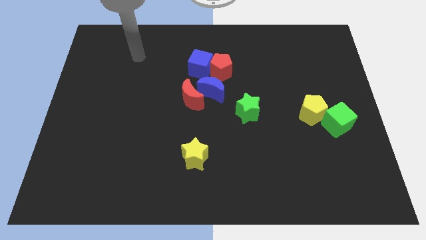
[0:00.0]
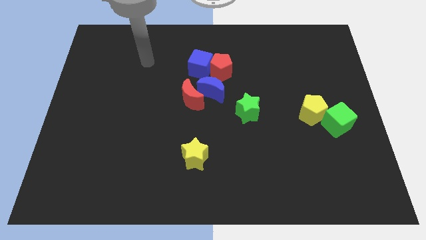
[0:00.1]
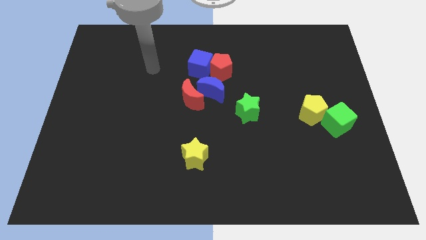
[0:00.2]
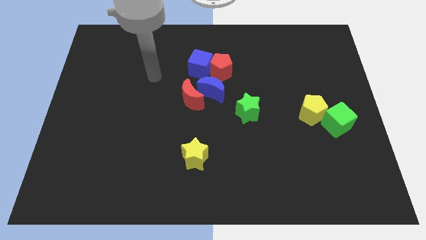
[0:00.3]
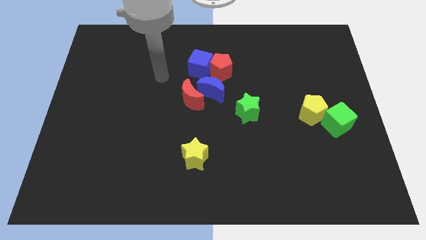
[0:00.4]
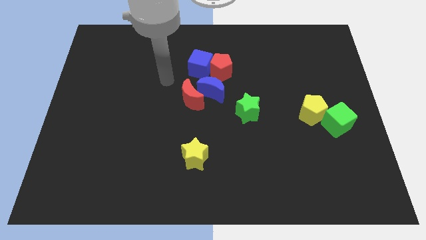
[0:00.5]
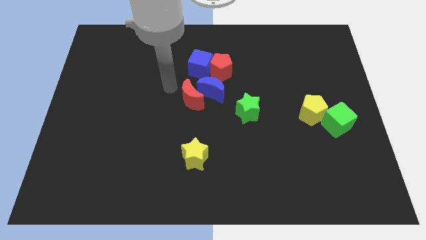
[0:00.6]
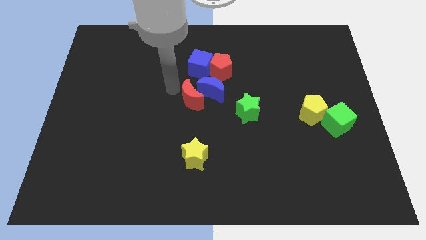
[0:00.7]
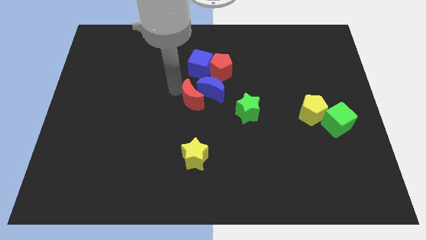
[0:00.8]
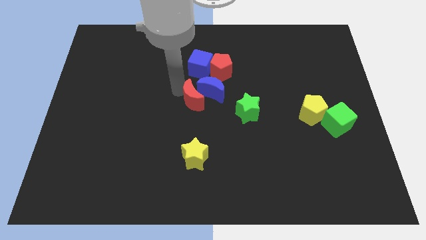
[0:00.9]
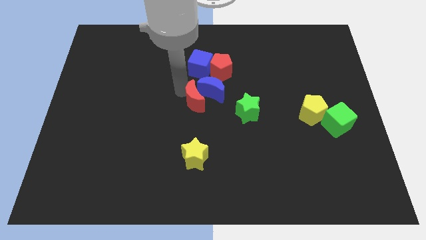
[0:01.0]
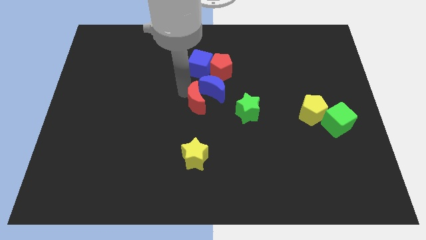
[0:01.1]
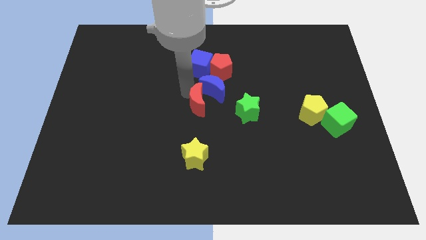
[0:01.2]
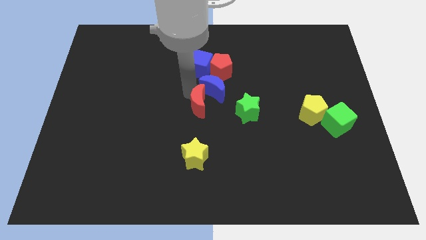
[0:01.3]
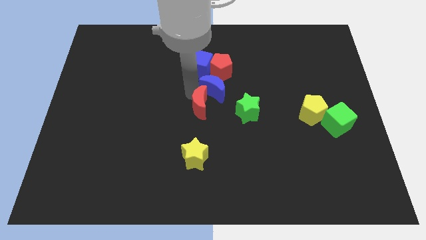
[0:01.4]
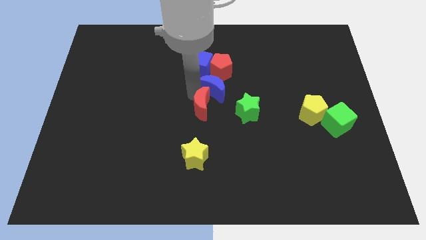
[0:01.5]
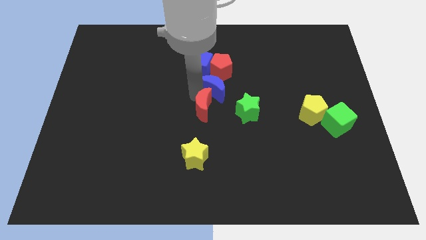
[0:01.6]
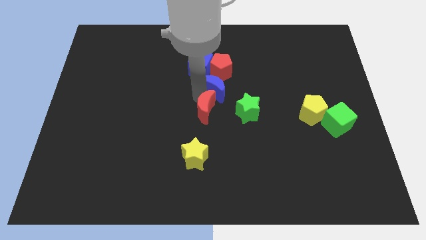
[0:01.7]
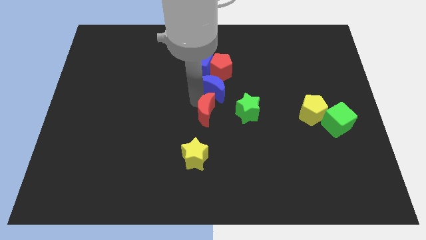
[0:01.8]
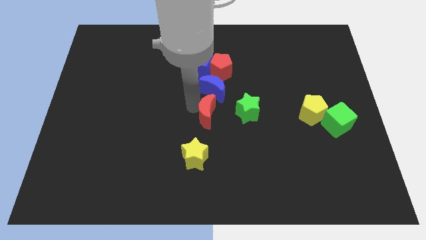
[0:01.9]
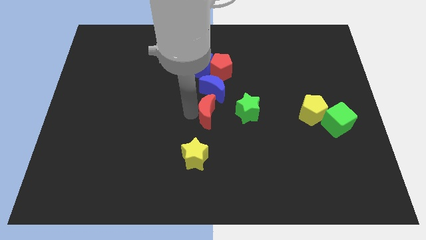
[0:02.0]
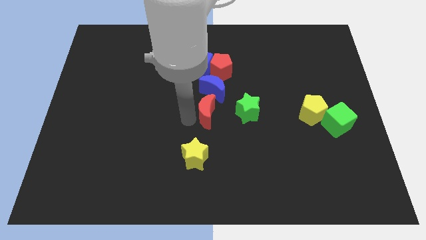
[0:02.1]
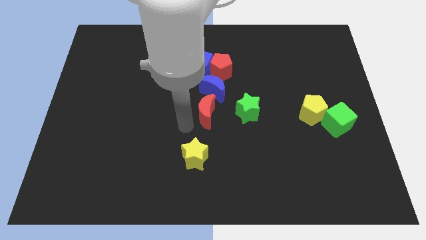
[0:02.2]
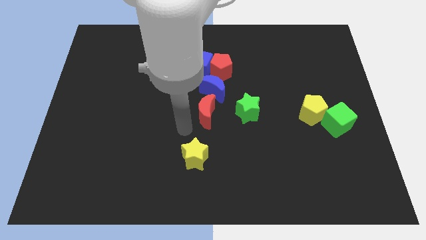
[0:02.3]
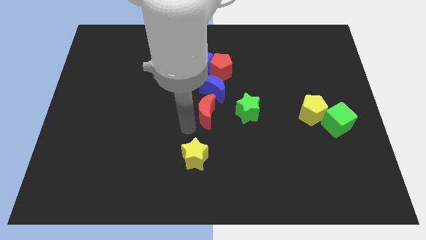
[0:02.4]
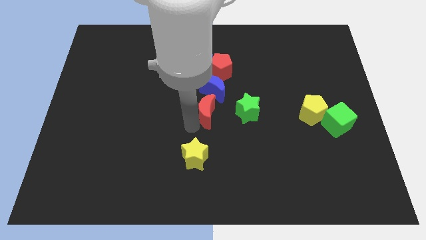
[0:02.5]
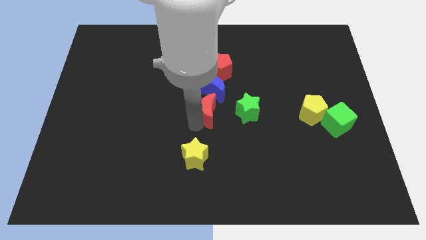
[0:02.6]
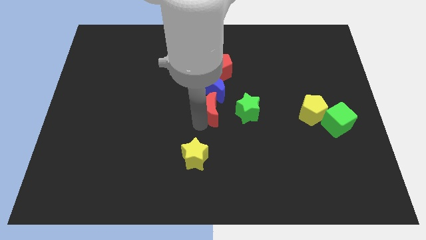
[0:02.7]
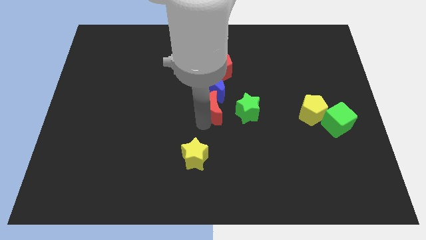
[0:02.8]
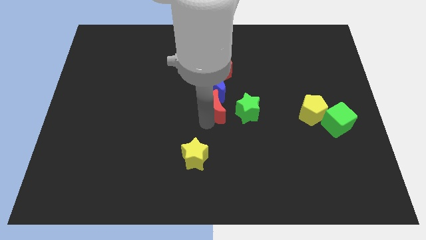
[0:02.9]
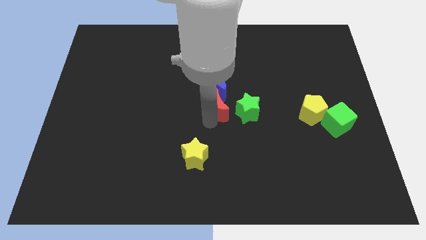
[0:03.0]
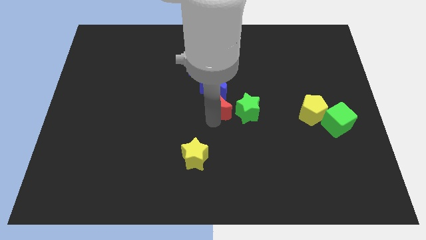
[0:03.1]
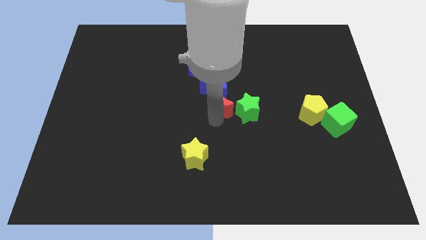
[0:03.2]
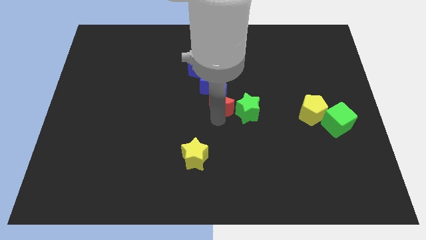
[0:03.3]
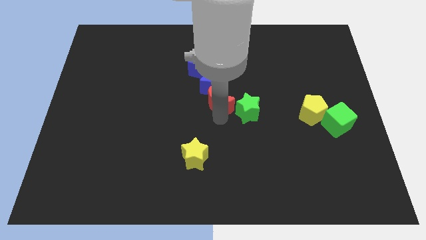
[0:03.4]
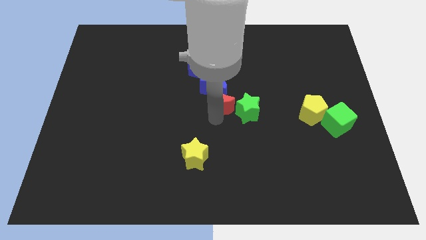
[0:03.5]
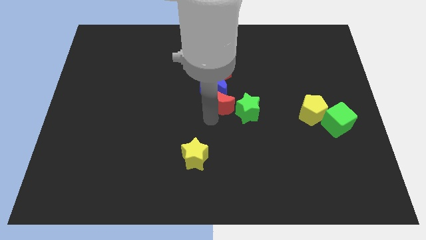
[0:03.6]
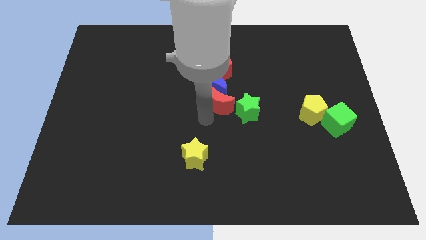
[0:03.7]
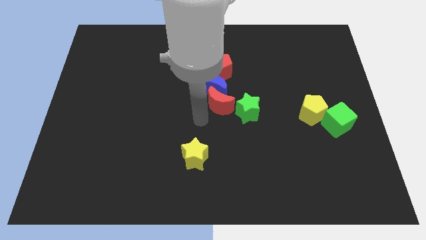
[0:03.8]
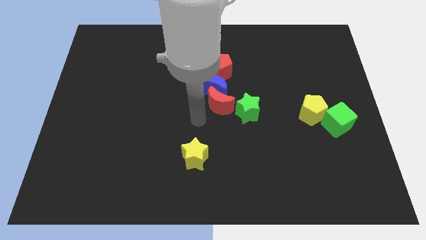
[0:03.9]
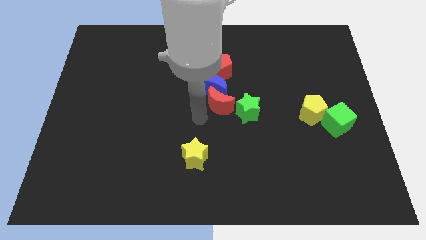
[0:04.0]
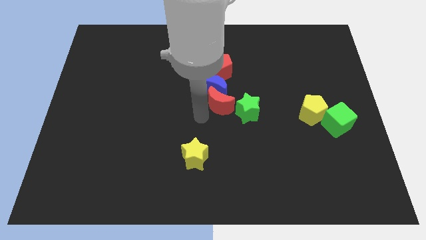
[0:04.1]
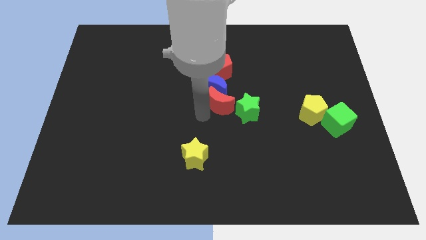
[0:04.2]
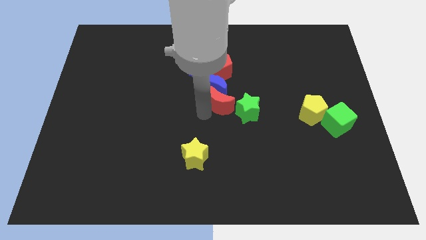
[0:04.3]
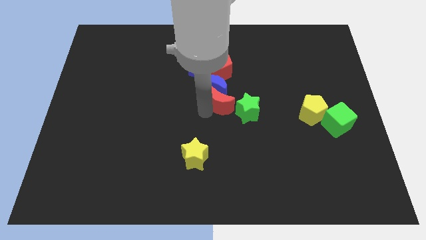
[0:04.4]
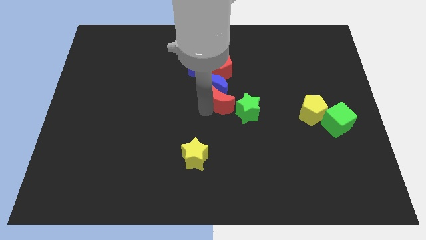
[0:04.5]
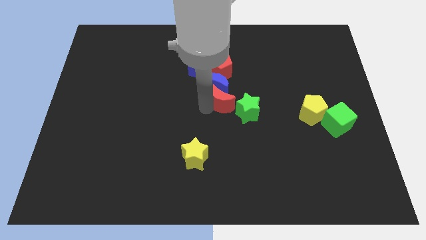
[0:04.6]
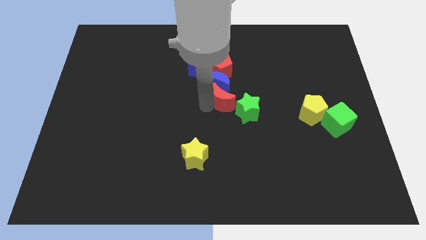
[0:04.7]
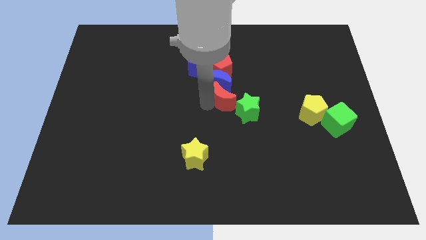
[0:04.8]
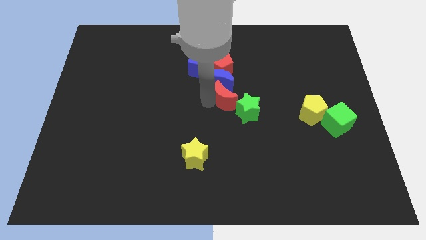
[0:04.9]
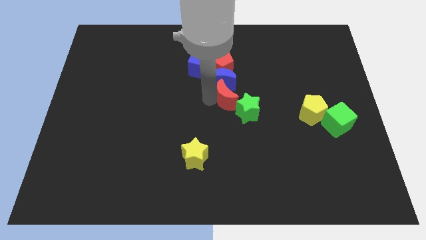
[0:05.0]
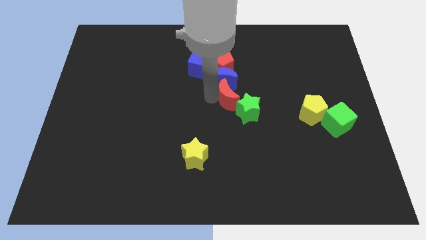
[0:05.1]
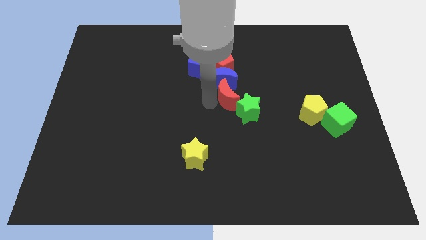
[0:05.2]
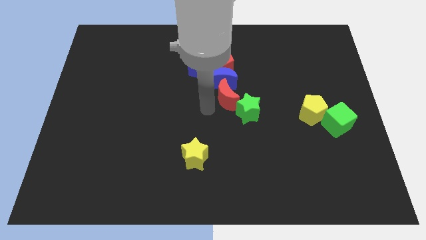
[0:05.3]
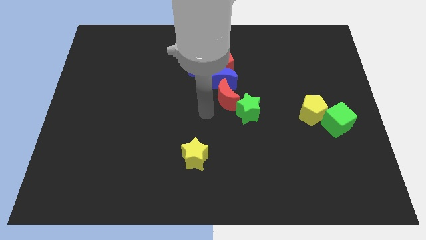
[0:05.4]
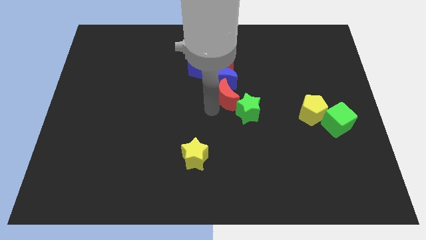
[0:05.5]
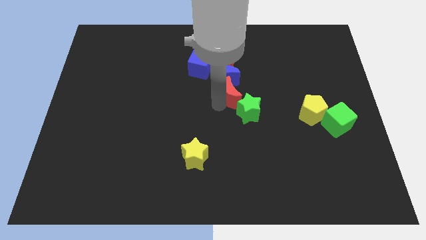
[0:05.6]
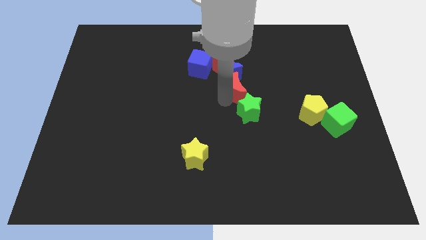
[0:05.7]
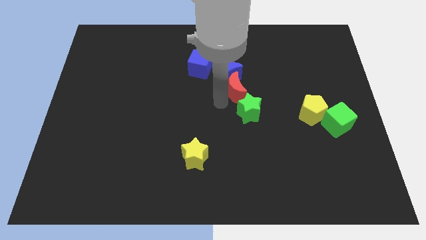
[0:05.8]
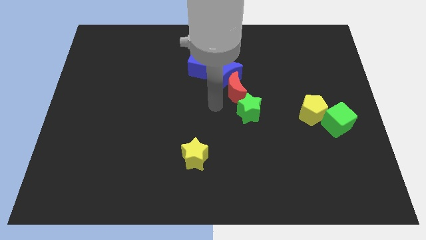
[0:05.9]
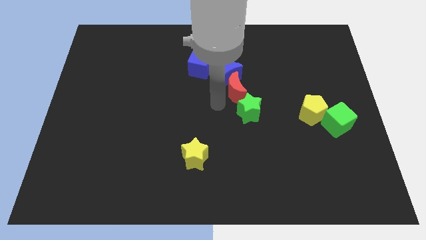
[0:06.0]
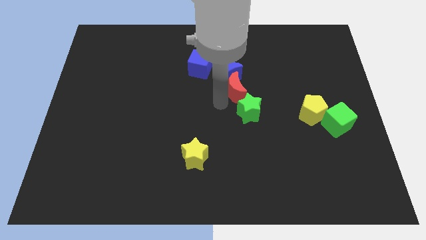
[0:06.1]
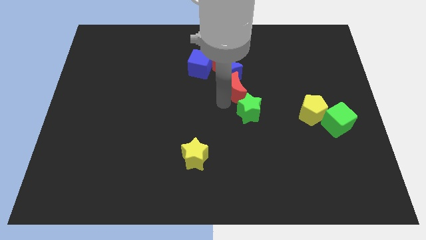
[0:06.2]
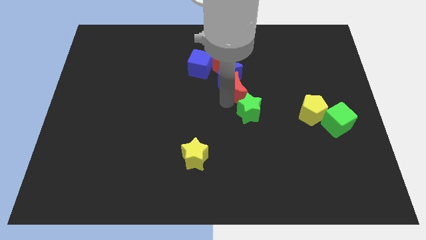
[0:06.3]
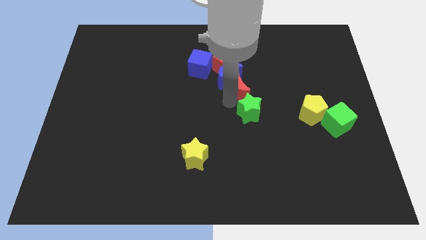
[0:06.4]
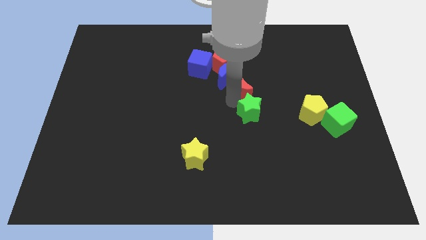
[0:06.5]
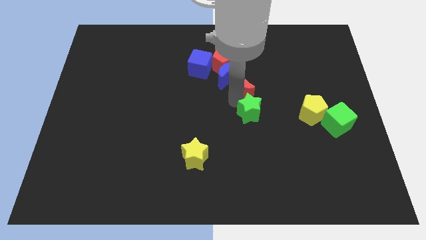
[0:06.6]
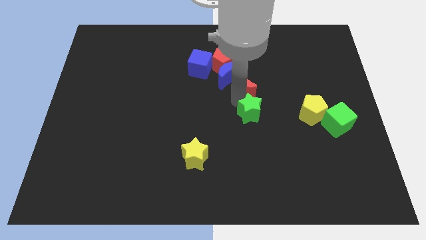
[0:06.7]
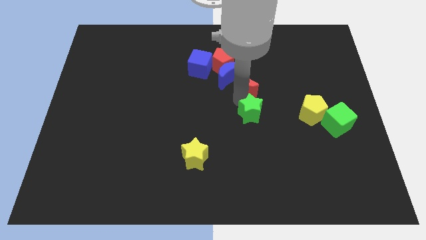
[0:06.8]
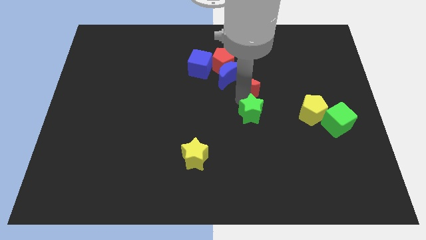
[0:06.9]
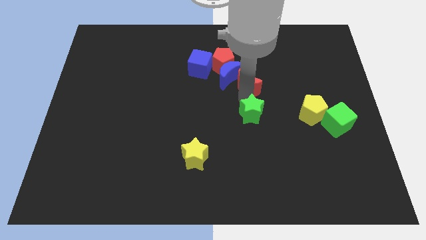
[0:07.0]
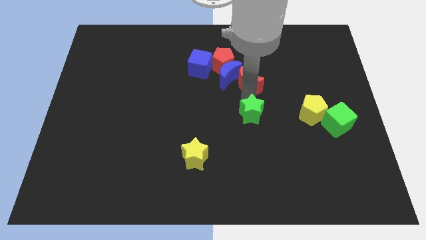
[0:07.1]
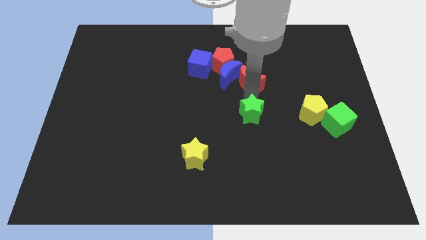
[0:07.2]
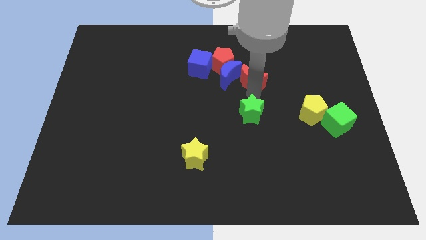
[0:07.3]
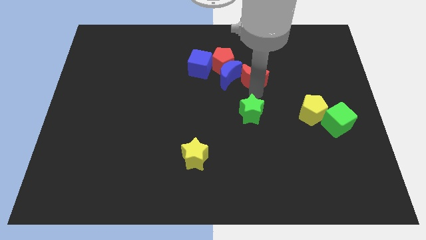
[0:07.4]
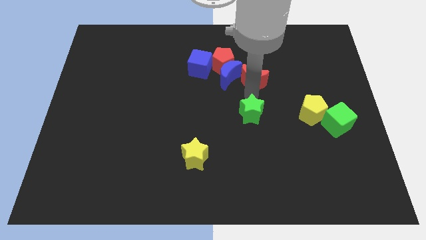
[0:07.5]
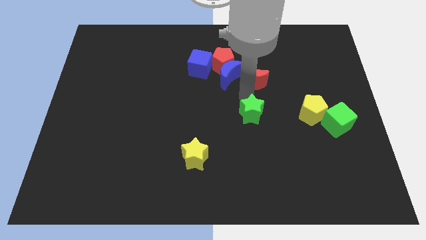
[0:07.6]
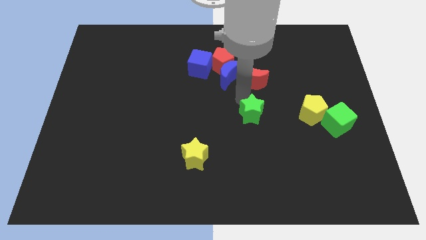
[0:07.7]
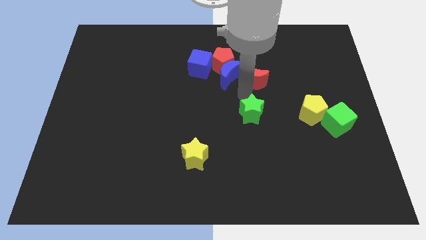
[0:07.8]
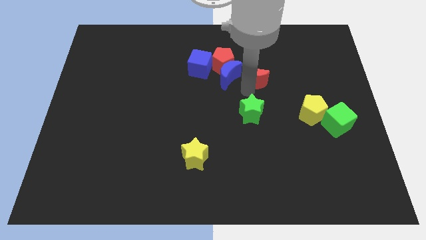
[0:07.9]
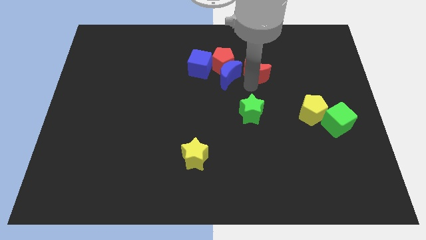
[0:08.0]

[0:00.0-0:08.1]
slide the red moon to the right side of the red pentagon
